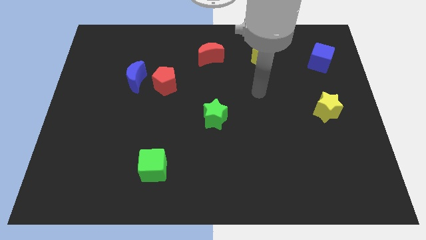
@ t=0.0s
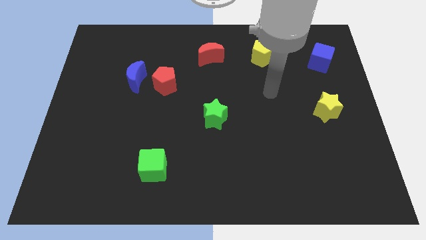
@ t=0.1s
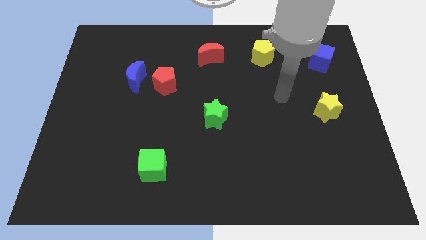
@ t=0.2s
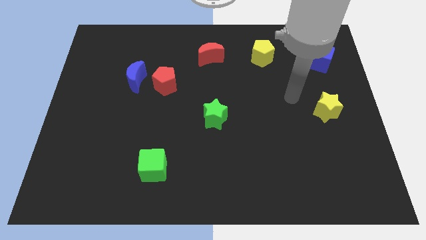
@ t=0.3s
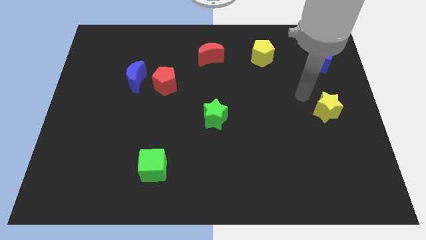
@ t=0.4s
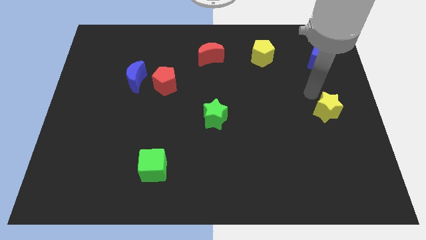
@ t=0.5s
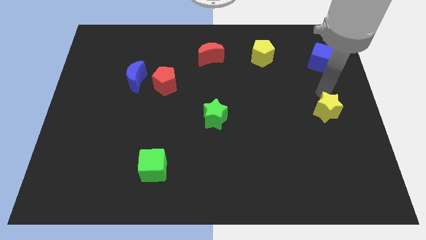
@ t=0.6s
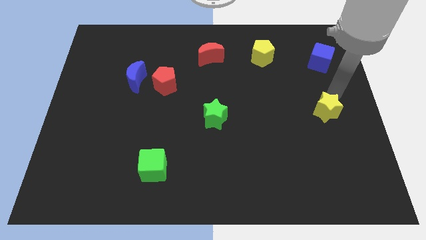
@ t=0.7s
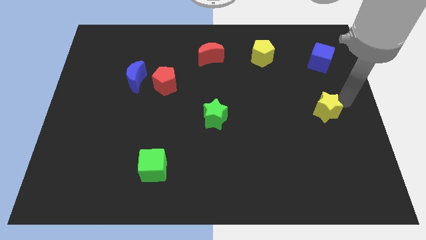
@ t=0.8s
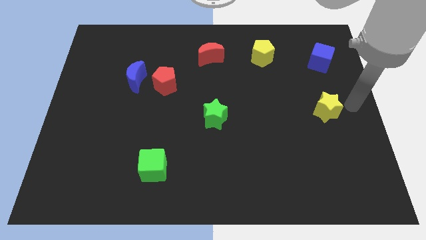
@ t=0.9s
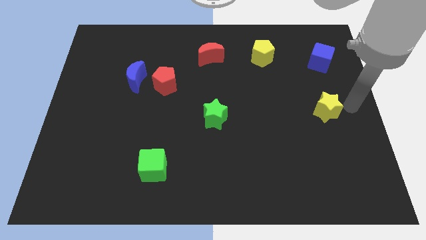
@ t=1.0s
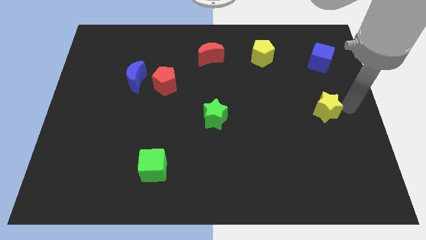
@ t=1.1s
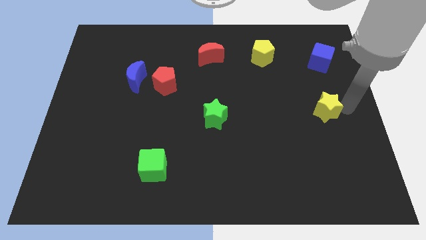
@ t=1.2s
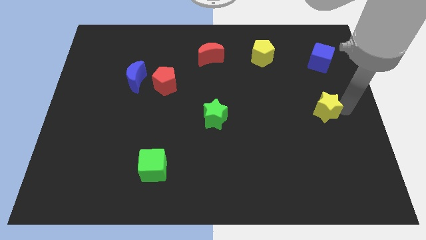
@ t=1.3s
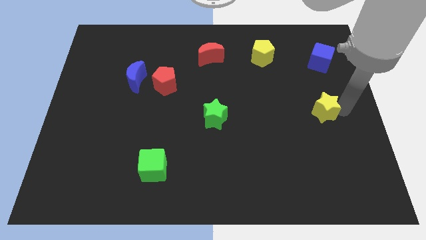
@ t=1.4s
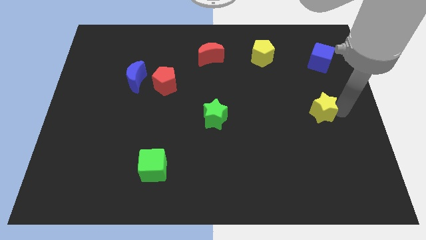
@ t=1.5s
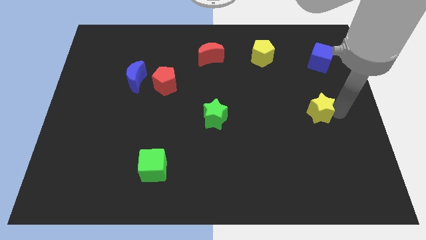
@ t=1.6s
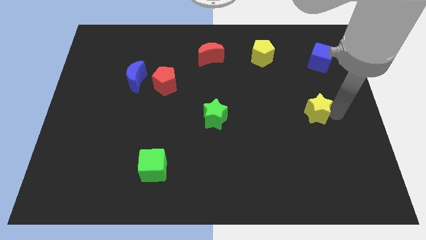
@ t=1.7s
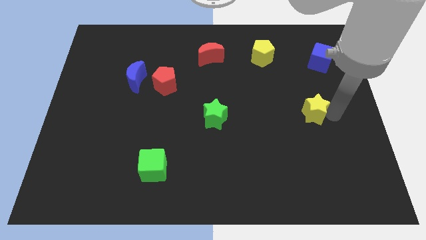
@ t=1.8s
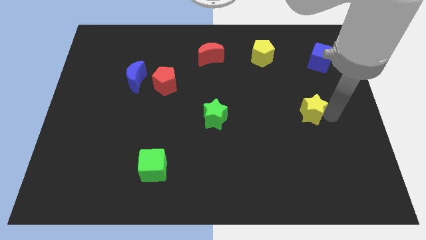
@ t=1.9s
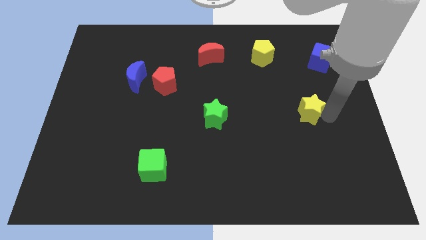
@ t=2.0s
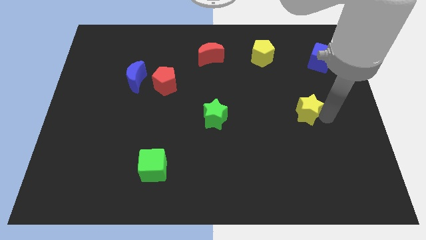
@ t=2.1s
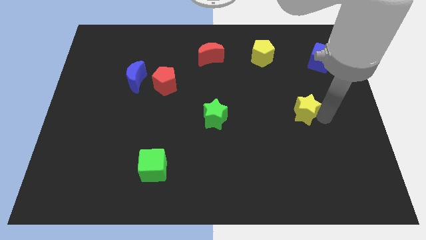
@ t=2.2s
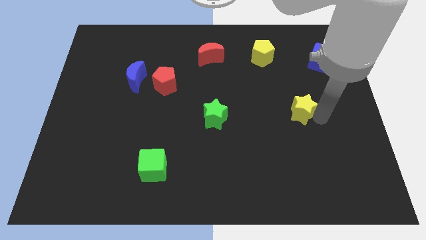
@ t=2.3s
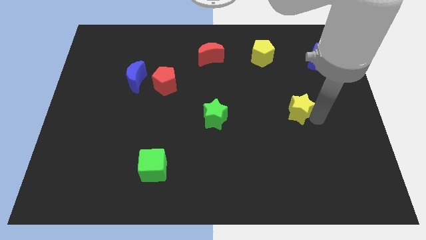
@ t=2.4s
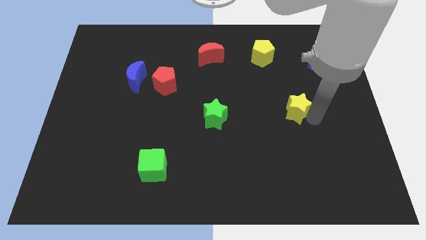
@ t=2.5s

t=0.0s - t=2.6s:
move the yellow star somewhat to the left

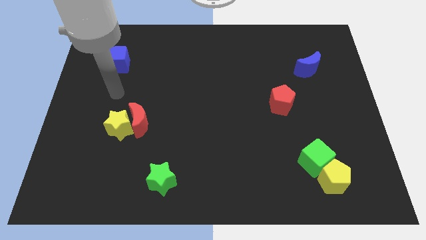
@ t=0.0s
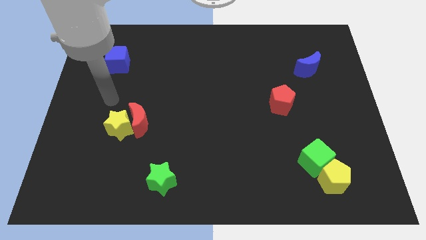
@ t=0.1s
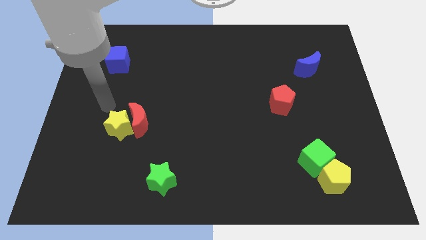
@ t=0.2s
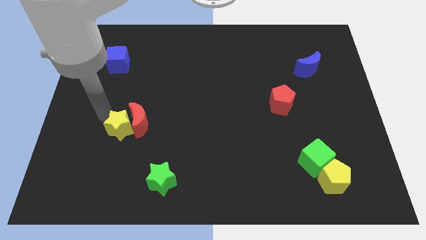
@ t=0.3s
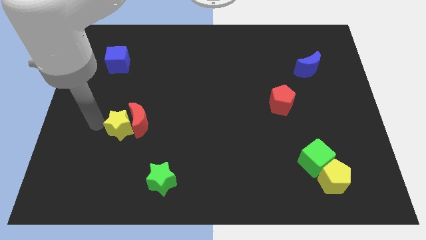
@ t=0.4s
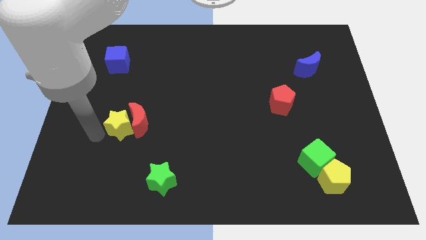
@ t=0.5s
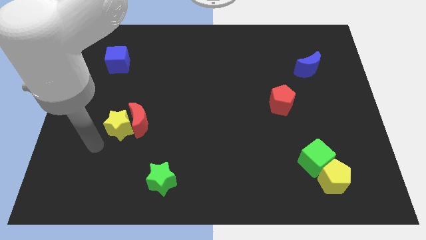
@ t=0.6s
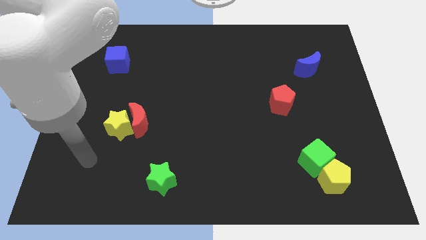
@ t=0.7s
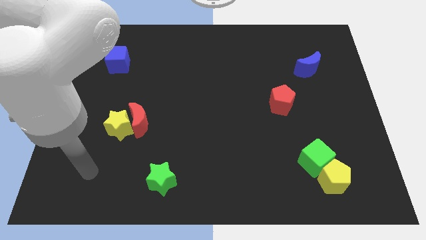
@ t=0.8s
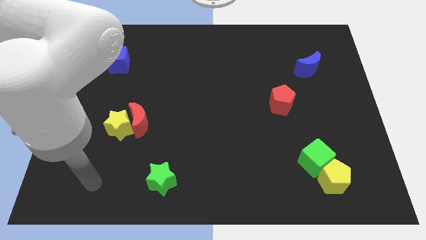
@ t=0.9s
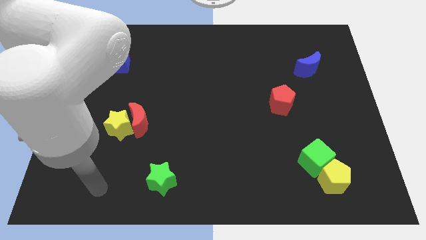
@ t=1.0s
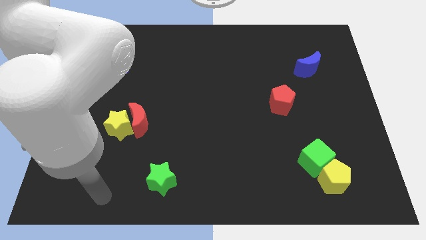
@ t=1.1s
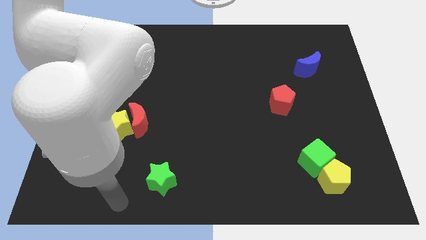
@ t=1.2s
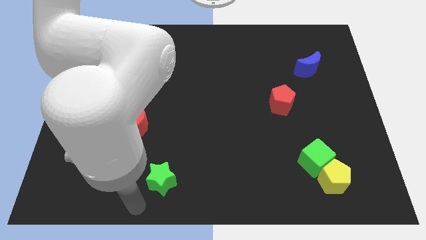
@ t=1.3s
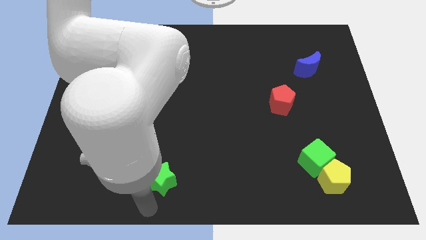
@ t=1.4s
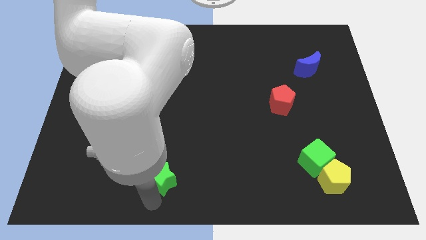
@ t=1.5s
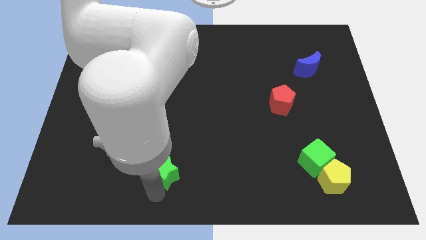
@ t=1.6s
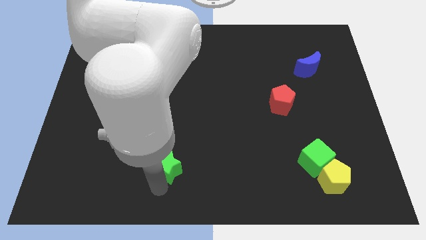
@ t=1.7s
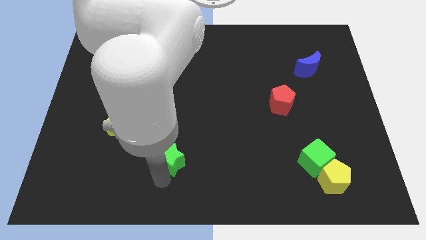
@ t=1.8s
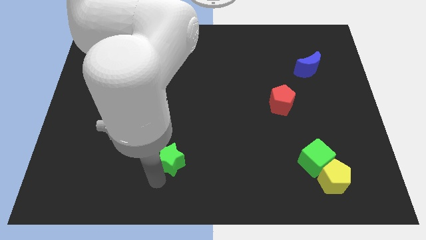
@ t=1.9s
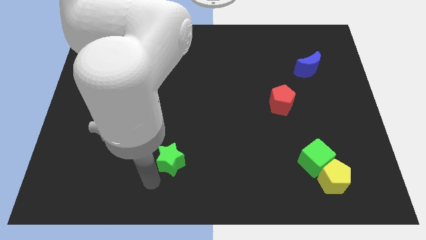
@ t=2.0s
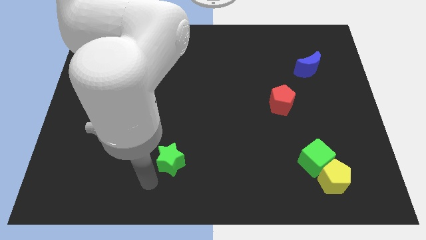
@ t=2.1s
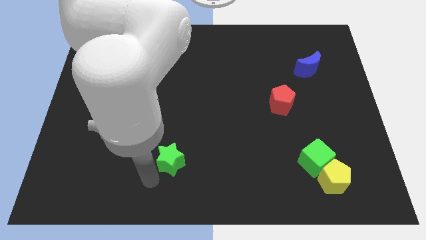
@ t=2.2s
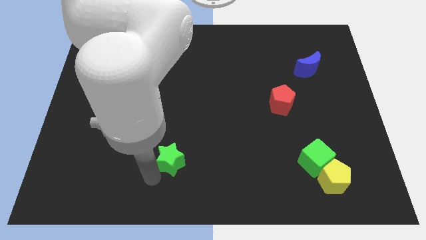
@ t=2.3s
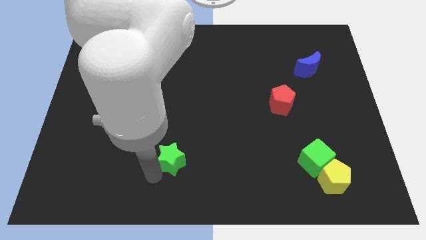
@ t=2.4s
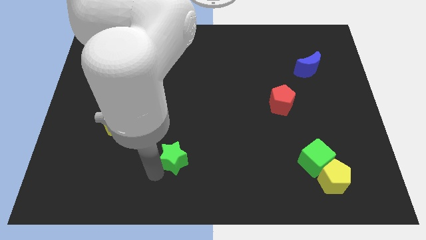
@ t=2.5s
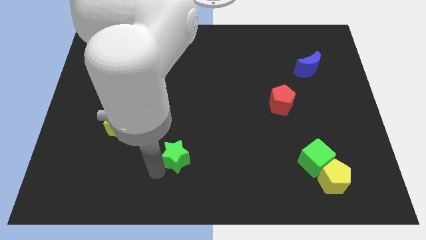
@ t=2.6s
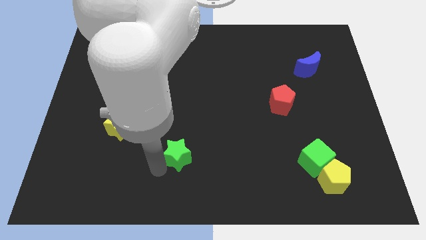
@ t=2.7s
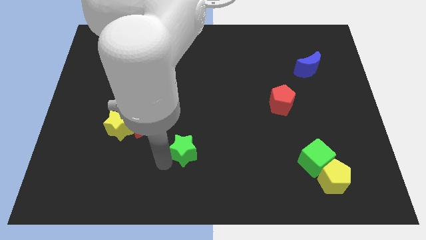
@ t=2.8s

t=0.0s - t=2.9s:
slightly move the green star diagonally upwards and to the right

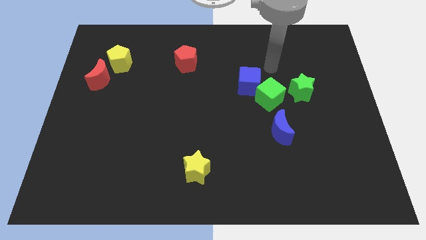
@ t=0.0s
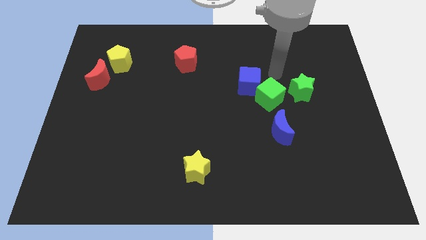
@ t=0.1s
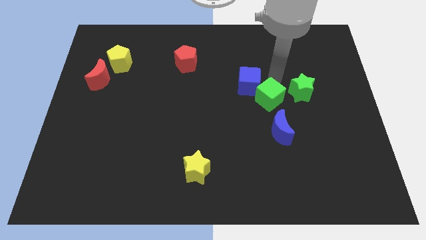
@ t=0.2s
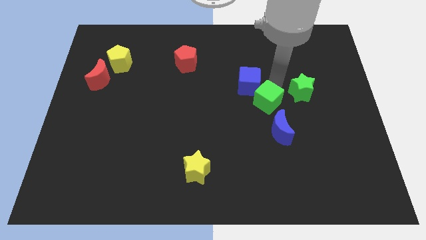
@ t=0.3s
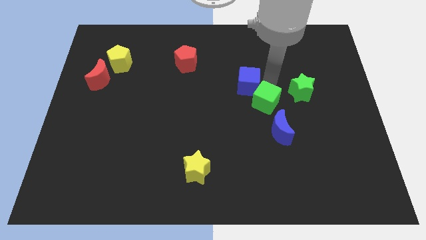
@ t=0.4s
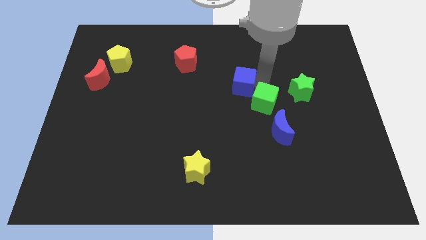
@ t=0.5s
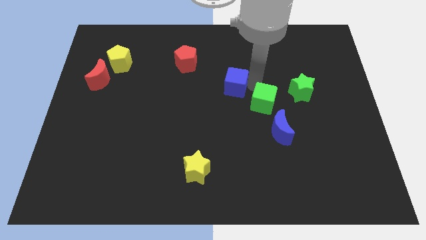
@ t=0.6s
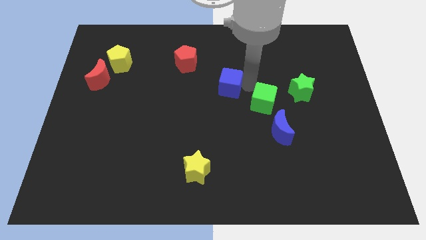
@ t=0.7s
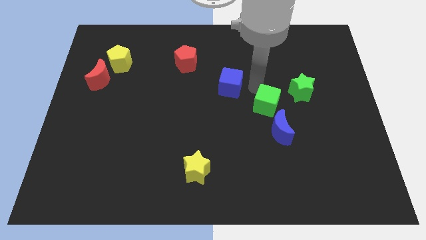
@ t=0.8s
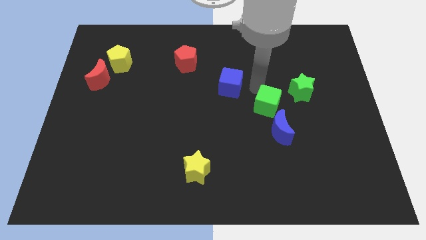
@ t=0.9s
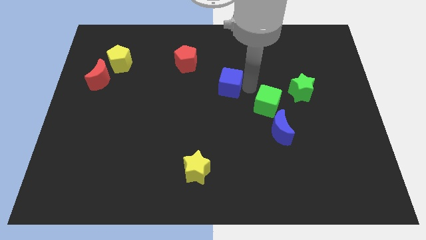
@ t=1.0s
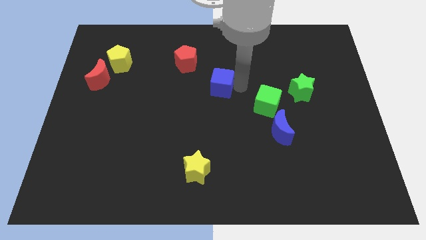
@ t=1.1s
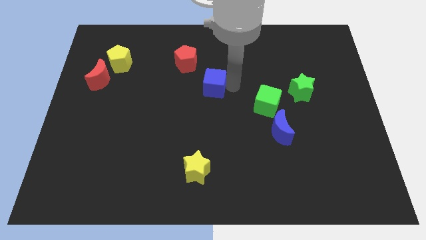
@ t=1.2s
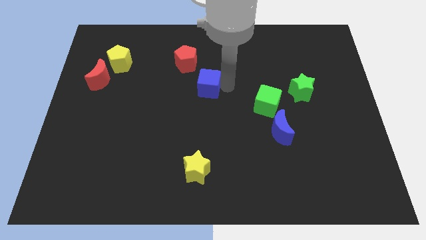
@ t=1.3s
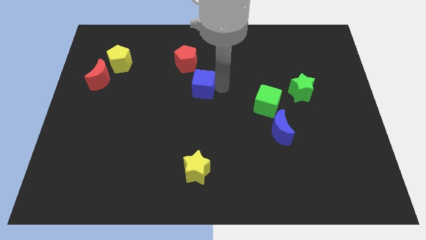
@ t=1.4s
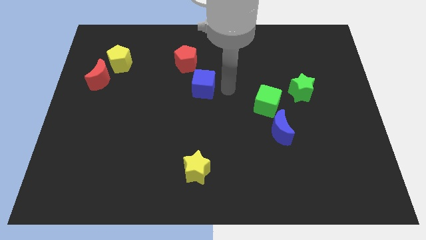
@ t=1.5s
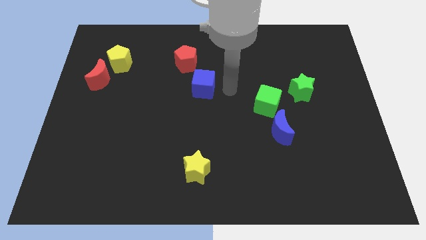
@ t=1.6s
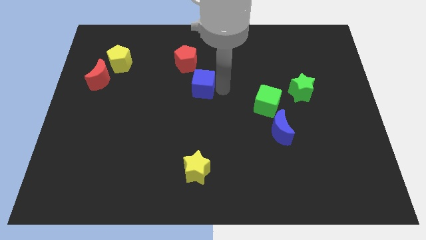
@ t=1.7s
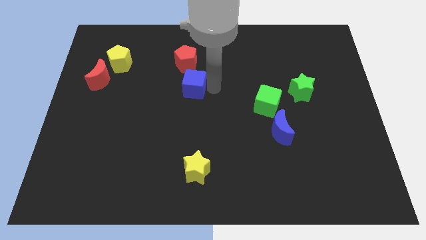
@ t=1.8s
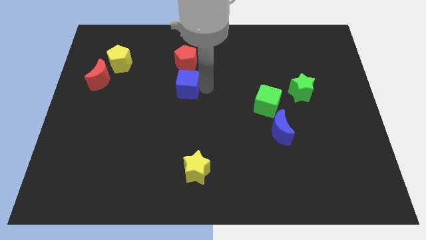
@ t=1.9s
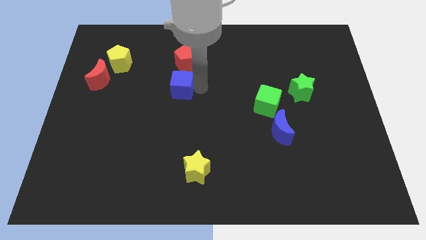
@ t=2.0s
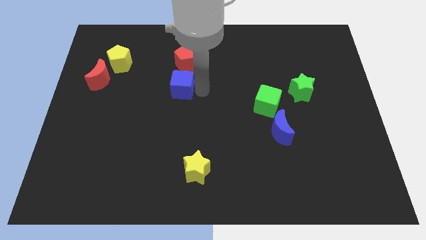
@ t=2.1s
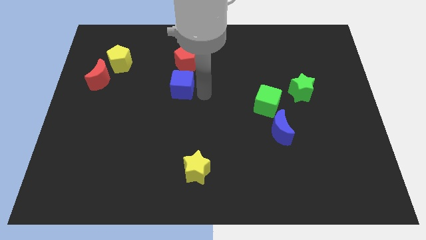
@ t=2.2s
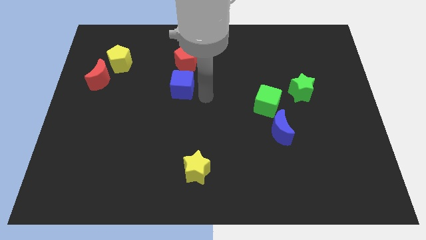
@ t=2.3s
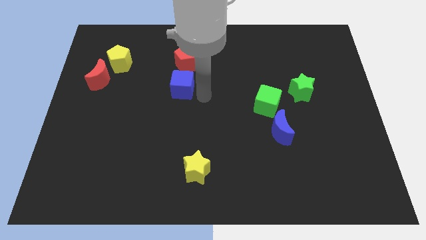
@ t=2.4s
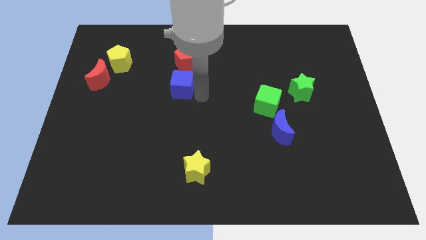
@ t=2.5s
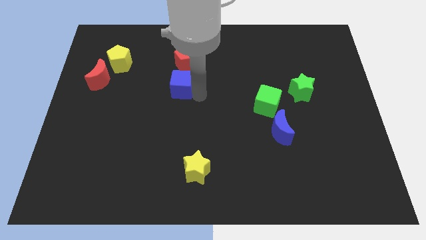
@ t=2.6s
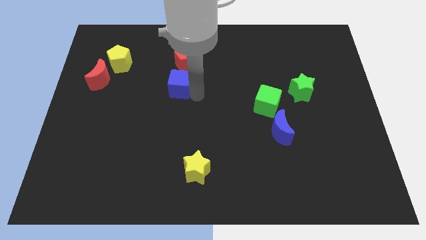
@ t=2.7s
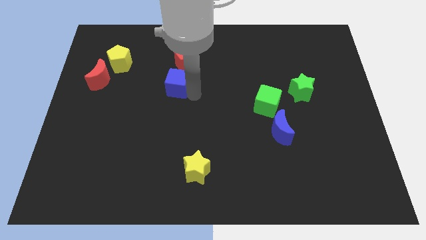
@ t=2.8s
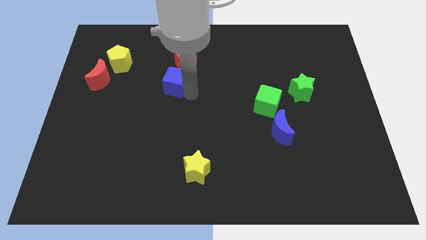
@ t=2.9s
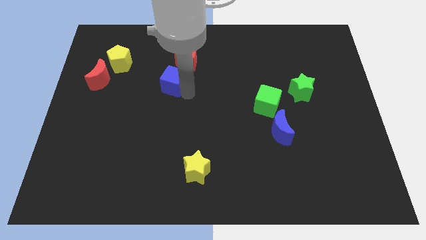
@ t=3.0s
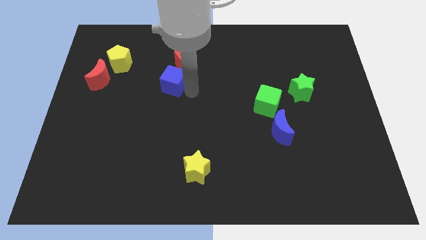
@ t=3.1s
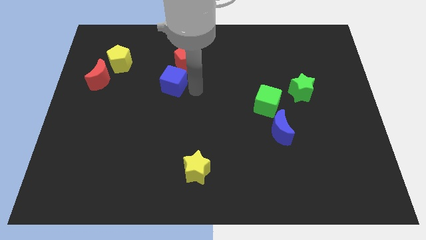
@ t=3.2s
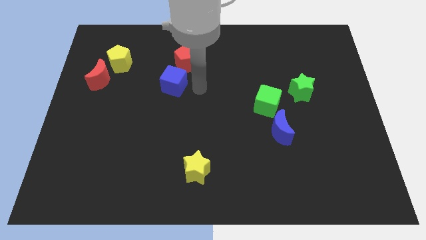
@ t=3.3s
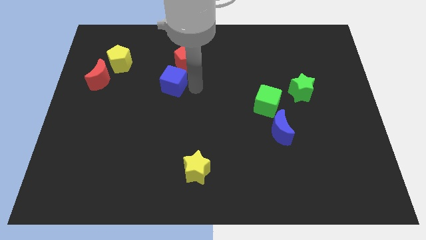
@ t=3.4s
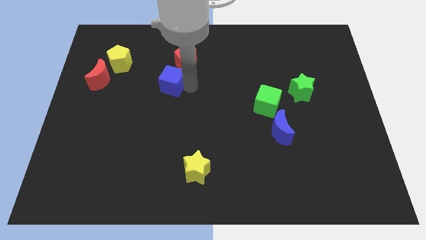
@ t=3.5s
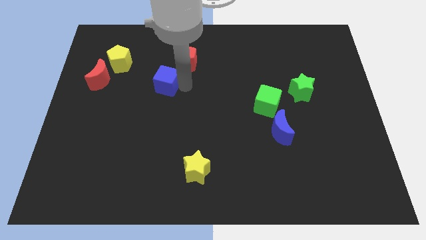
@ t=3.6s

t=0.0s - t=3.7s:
slide the blue cube to the left
